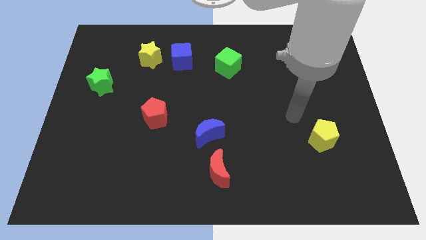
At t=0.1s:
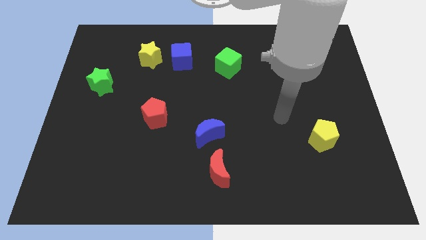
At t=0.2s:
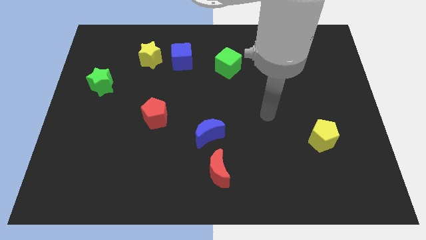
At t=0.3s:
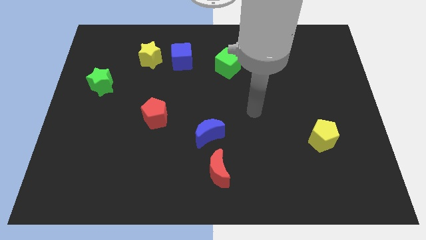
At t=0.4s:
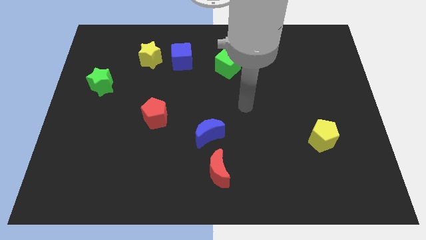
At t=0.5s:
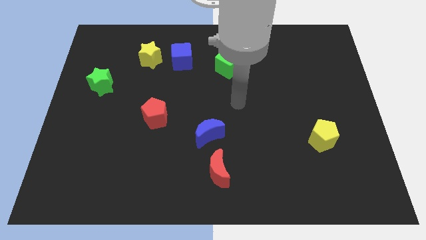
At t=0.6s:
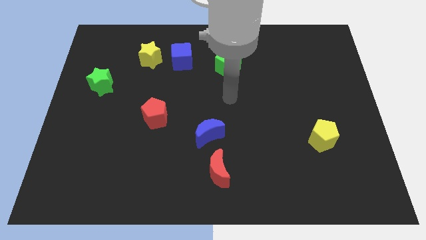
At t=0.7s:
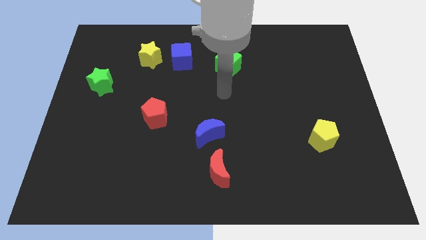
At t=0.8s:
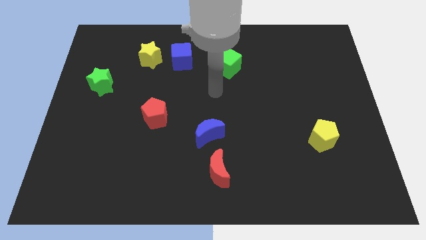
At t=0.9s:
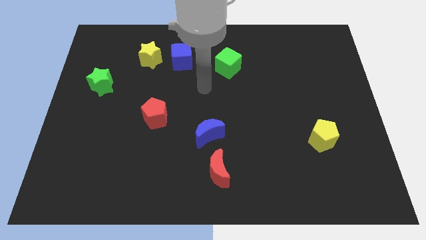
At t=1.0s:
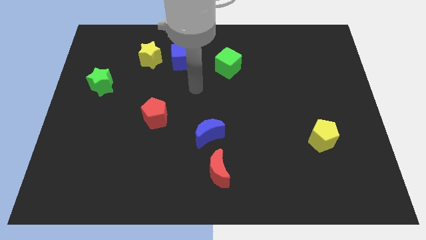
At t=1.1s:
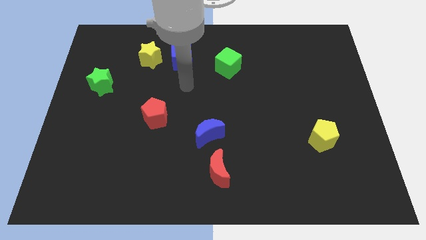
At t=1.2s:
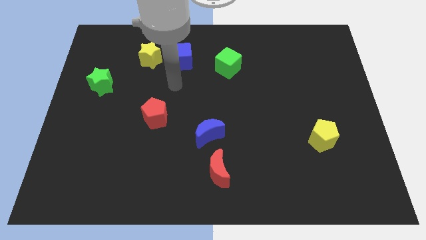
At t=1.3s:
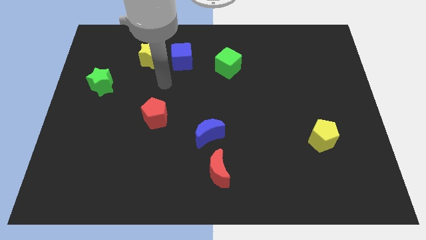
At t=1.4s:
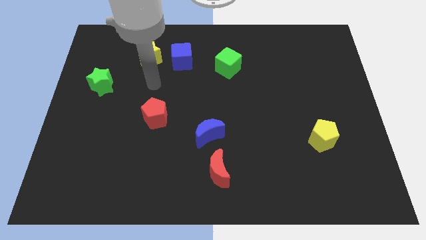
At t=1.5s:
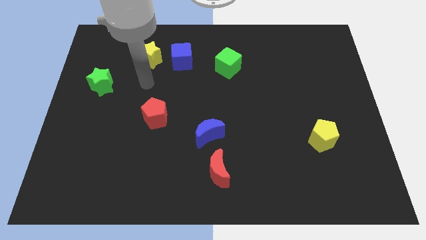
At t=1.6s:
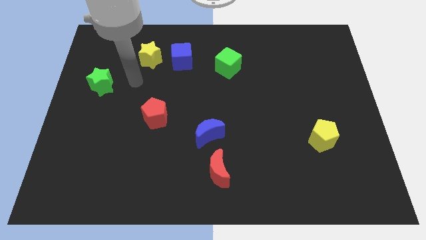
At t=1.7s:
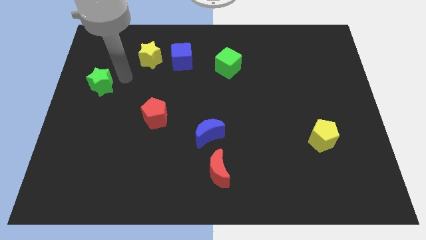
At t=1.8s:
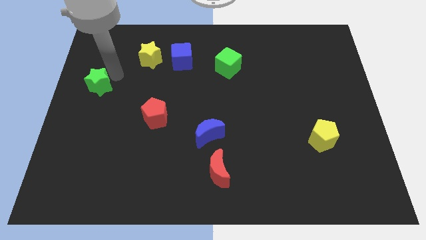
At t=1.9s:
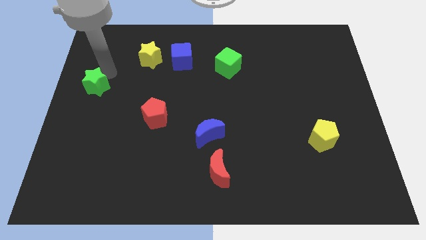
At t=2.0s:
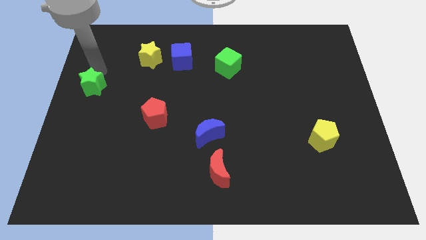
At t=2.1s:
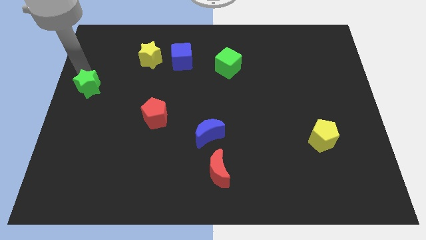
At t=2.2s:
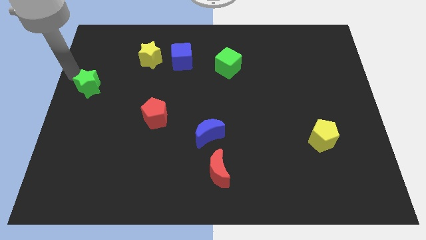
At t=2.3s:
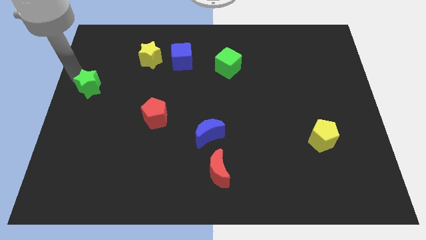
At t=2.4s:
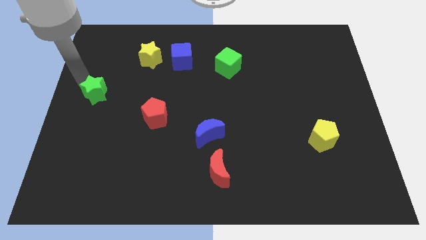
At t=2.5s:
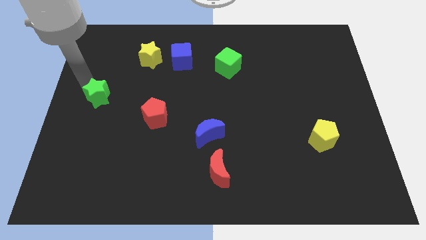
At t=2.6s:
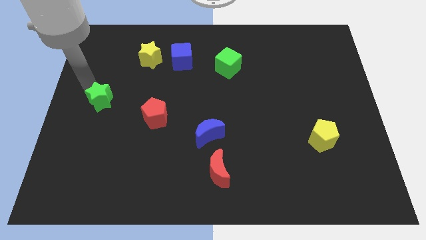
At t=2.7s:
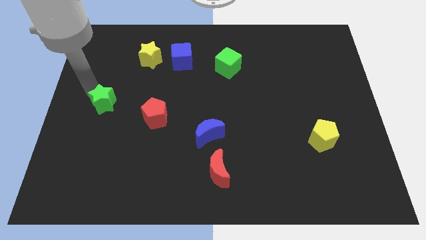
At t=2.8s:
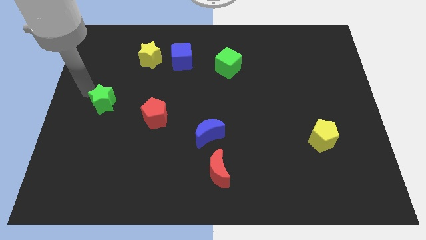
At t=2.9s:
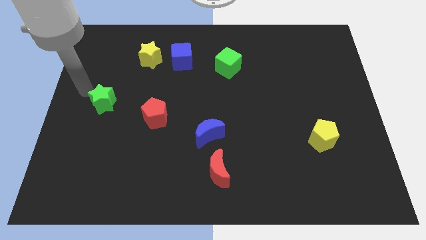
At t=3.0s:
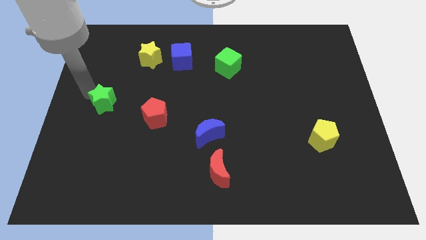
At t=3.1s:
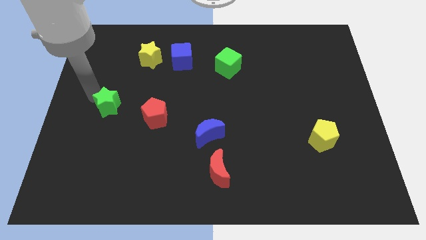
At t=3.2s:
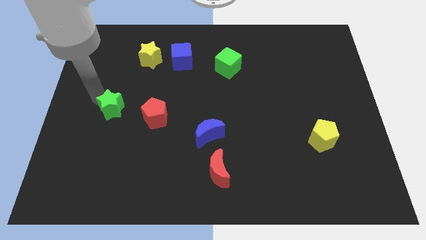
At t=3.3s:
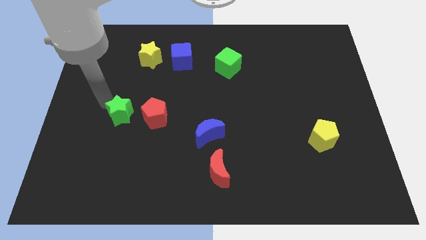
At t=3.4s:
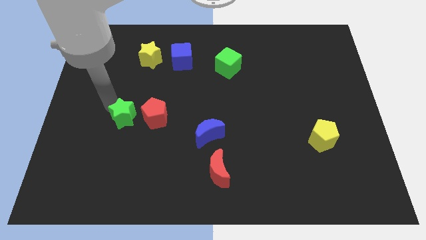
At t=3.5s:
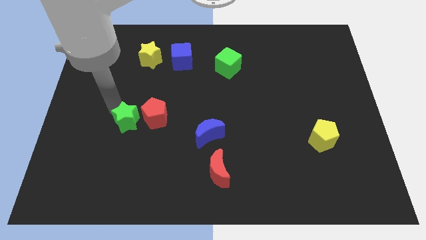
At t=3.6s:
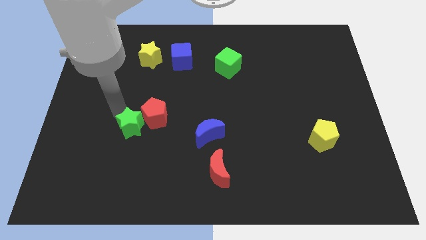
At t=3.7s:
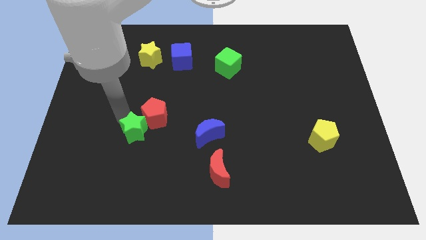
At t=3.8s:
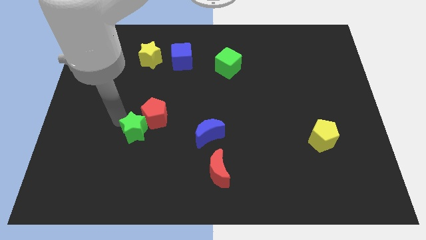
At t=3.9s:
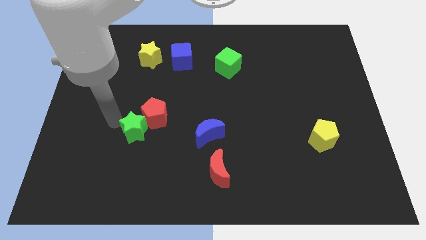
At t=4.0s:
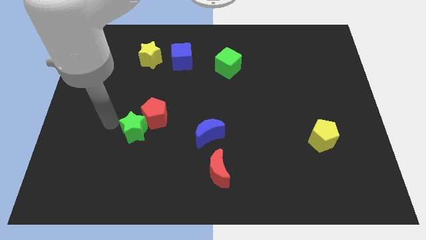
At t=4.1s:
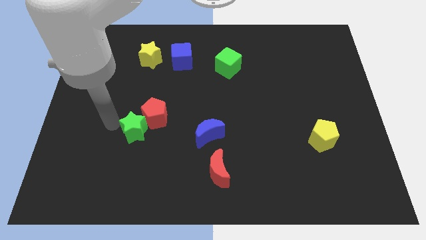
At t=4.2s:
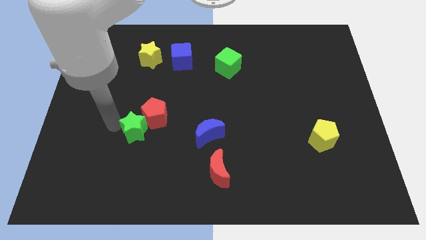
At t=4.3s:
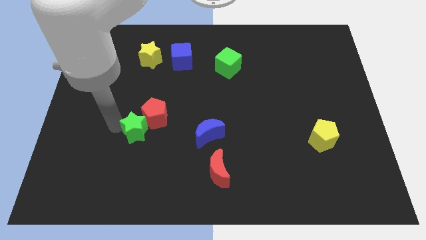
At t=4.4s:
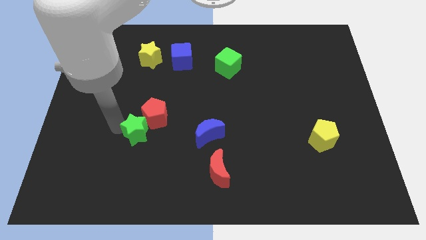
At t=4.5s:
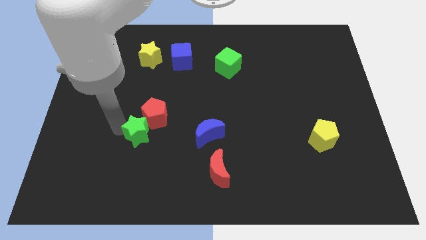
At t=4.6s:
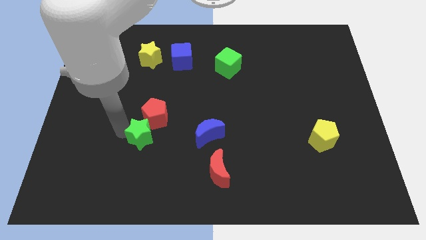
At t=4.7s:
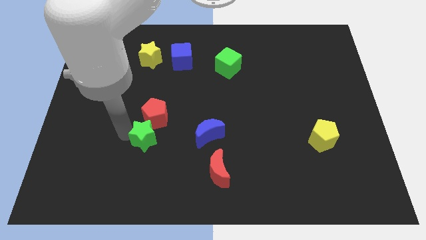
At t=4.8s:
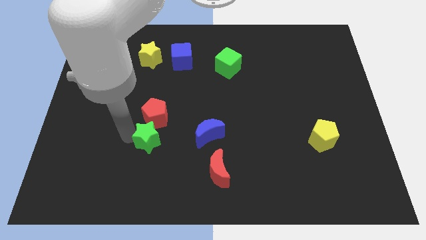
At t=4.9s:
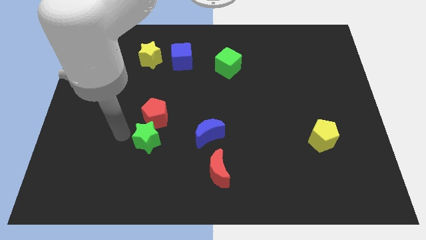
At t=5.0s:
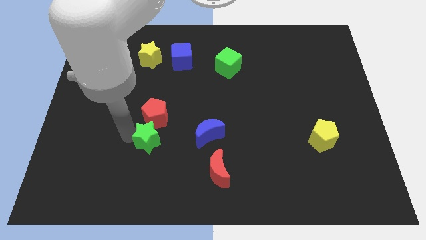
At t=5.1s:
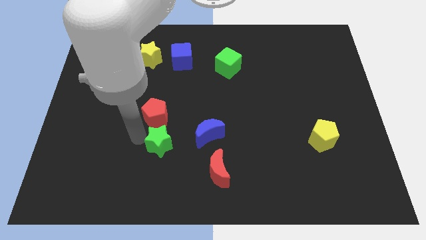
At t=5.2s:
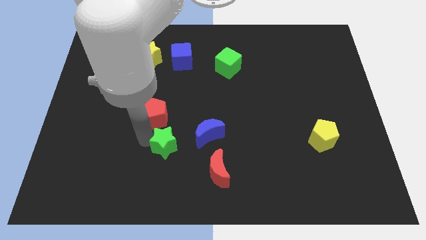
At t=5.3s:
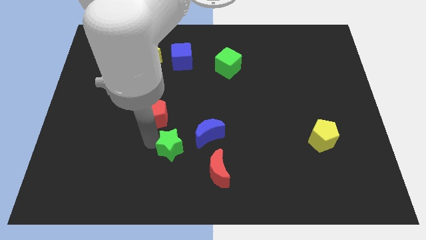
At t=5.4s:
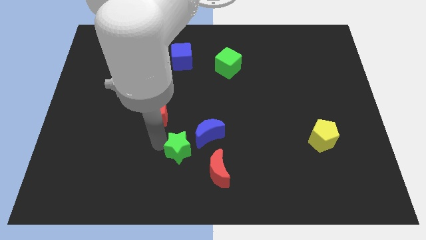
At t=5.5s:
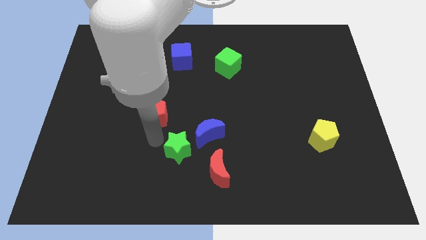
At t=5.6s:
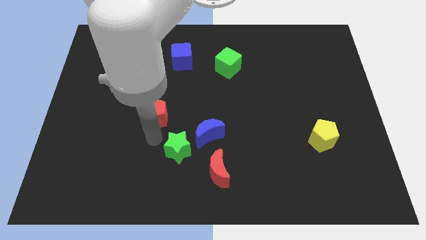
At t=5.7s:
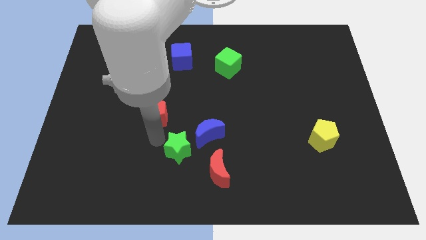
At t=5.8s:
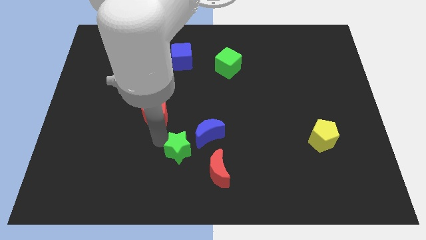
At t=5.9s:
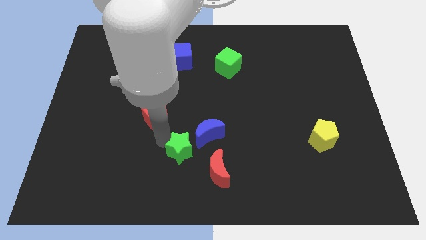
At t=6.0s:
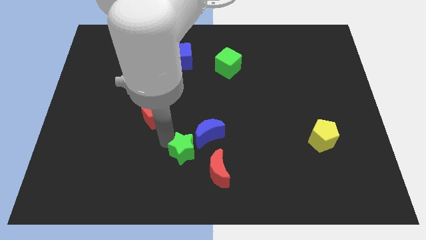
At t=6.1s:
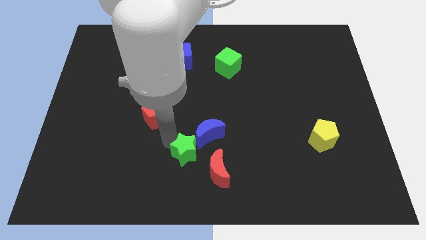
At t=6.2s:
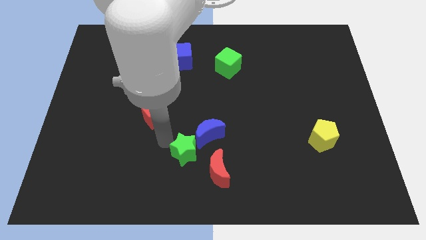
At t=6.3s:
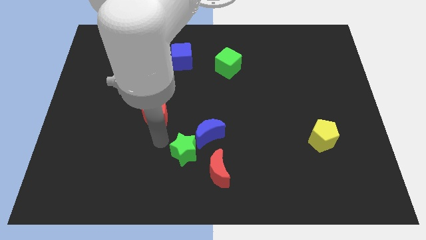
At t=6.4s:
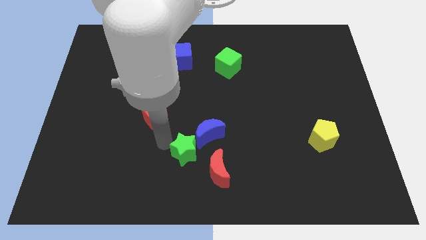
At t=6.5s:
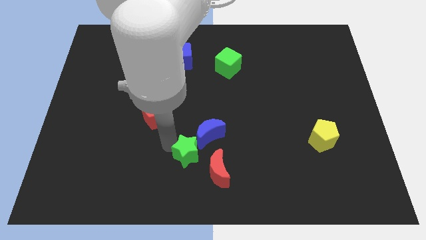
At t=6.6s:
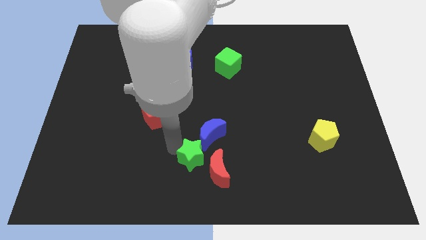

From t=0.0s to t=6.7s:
slide the green star close to the red moon

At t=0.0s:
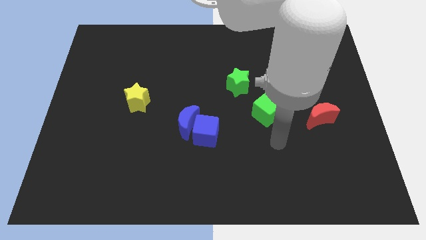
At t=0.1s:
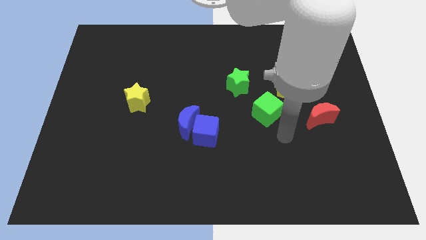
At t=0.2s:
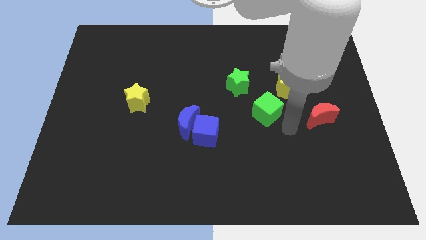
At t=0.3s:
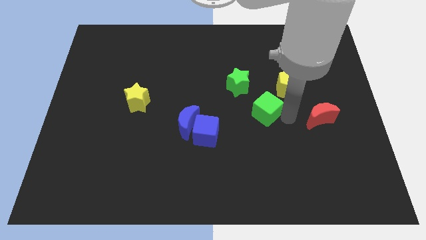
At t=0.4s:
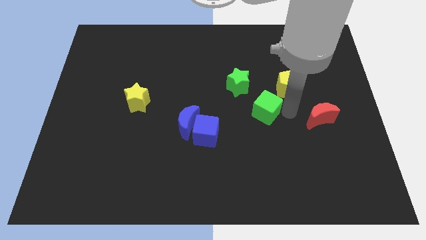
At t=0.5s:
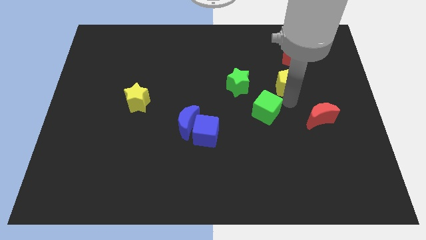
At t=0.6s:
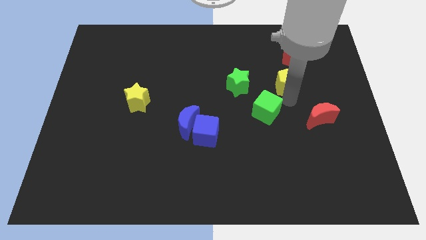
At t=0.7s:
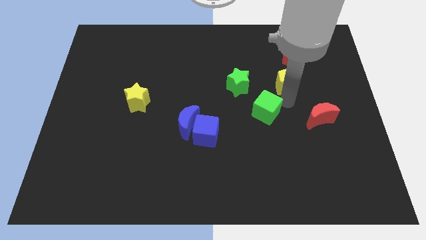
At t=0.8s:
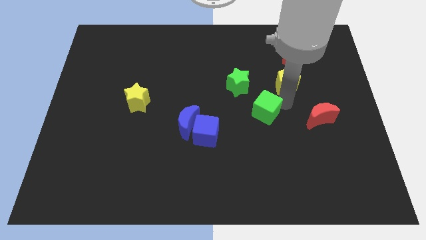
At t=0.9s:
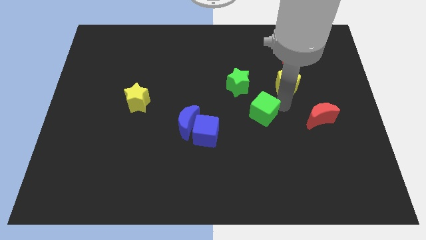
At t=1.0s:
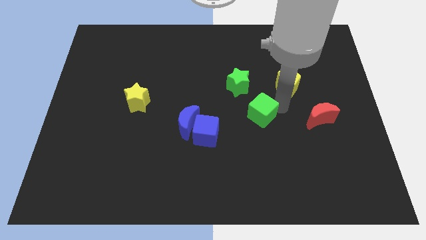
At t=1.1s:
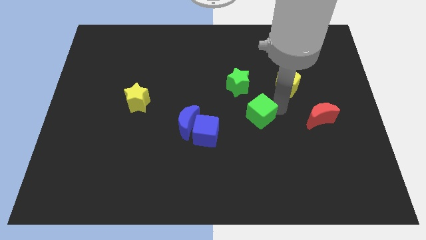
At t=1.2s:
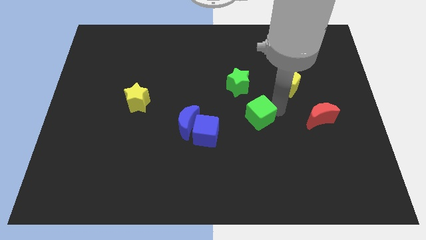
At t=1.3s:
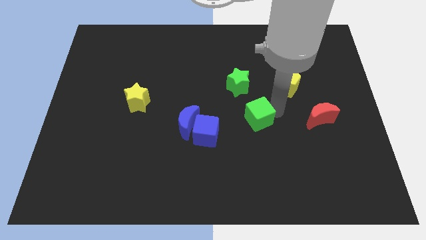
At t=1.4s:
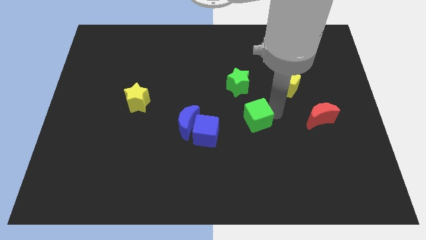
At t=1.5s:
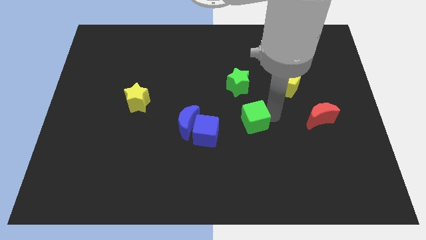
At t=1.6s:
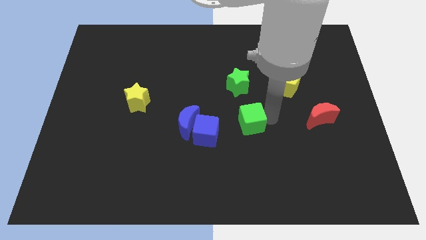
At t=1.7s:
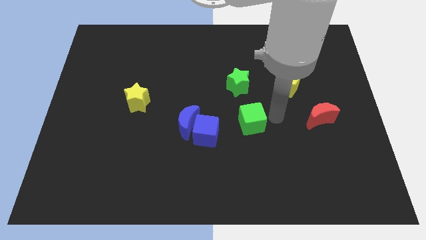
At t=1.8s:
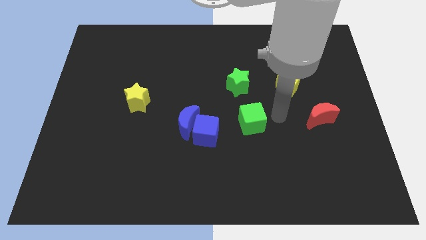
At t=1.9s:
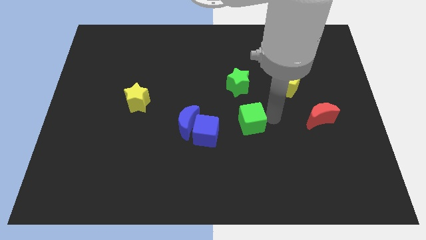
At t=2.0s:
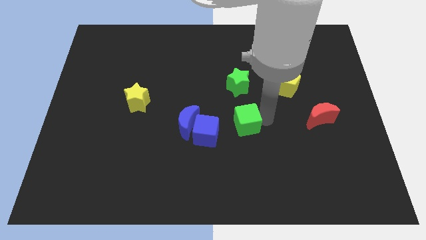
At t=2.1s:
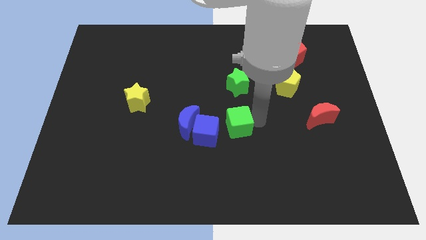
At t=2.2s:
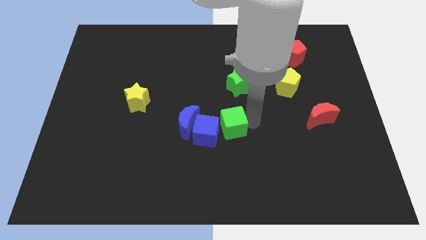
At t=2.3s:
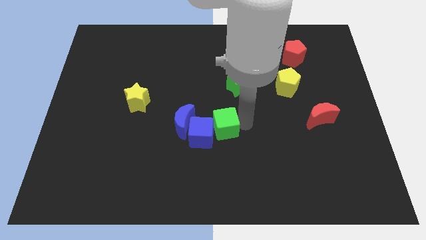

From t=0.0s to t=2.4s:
push the green cube towards the blue cube
